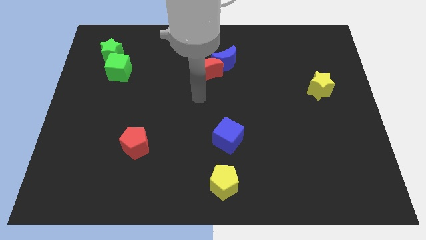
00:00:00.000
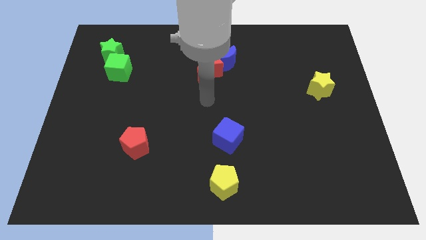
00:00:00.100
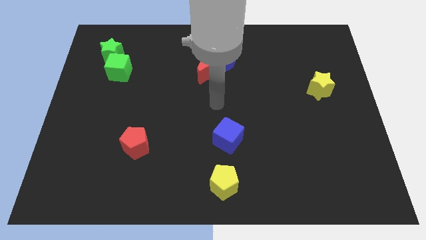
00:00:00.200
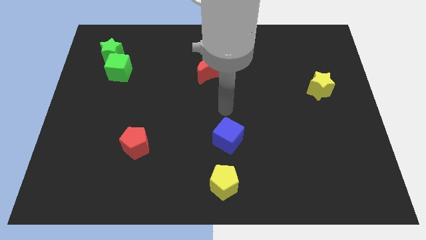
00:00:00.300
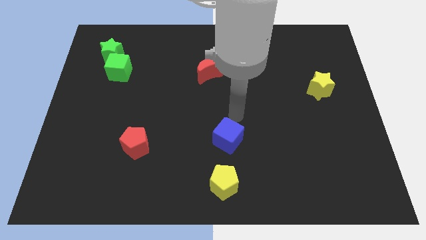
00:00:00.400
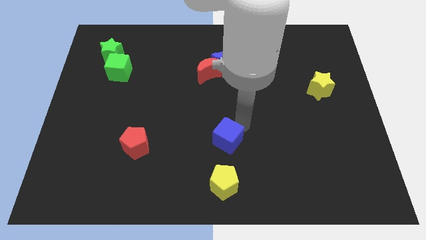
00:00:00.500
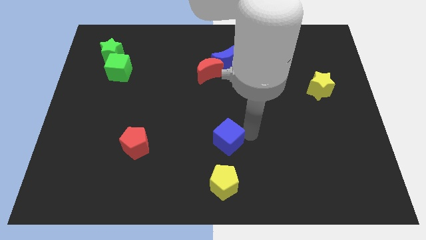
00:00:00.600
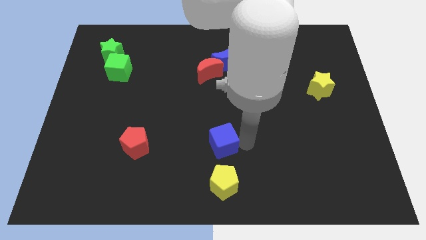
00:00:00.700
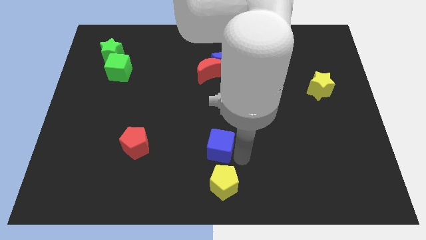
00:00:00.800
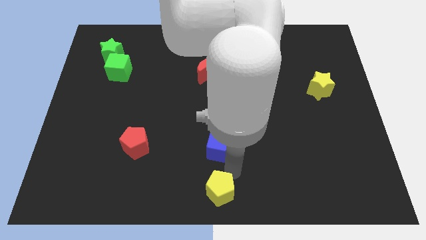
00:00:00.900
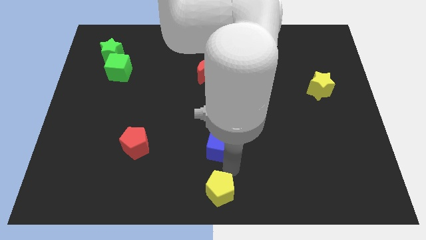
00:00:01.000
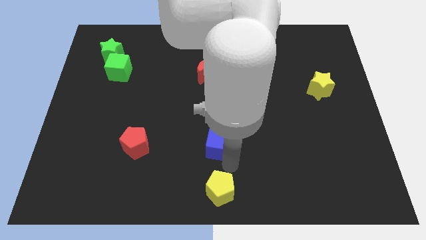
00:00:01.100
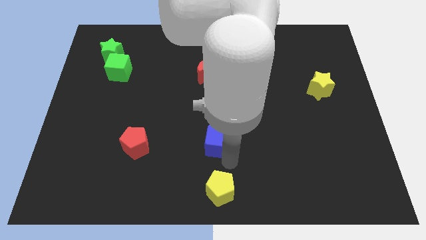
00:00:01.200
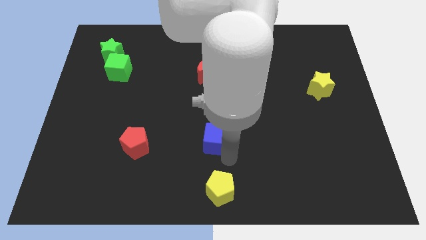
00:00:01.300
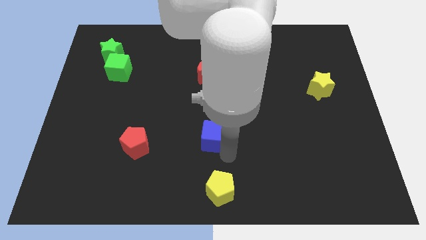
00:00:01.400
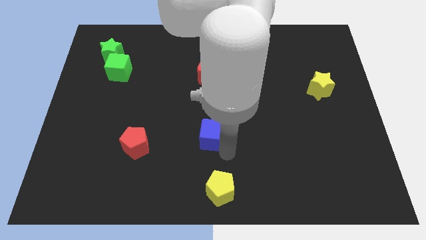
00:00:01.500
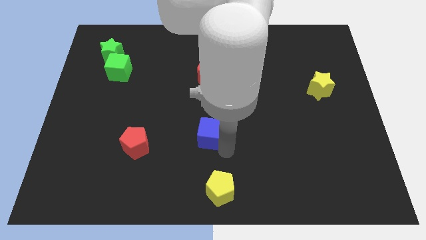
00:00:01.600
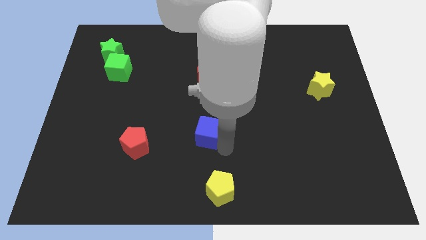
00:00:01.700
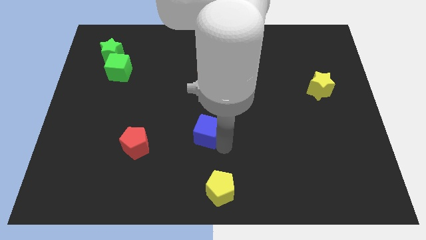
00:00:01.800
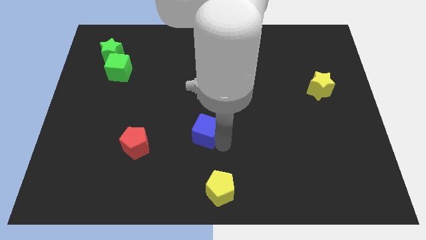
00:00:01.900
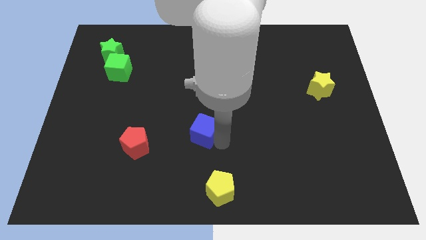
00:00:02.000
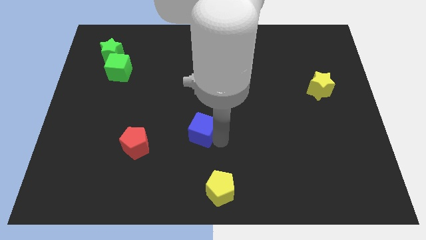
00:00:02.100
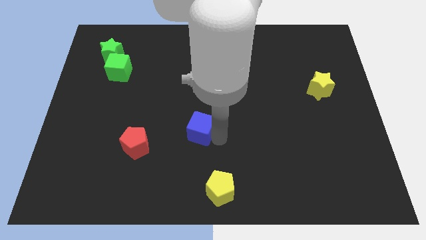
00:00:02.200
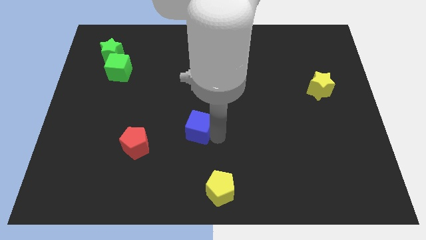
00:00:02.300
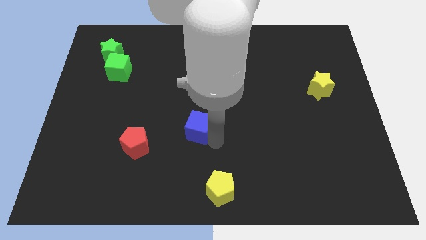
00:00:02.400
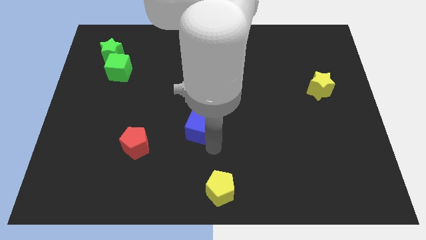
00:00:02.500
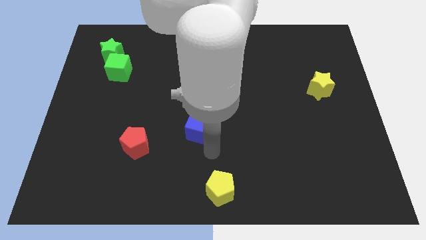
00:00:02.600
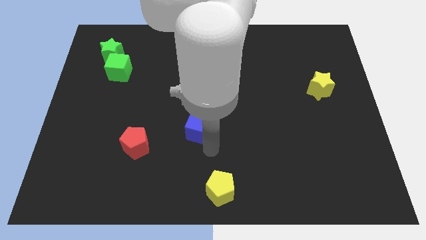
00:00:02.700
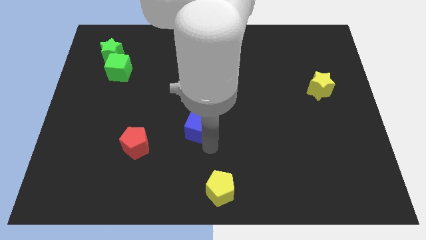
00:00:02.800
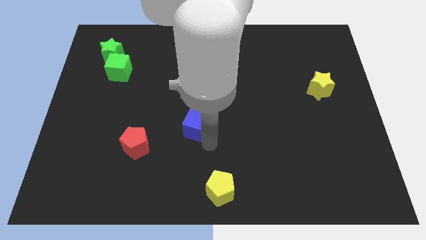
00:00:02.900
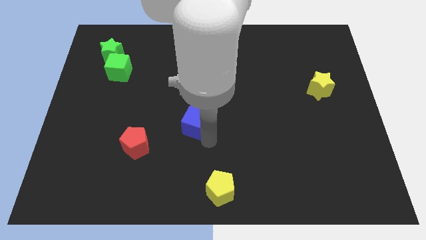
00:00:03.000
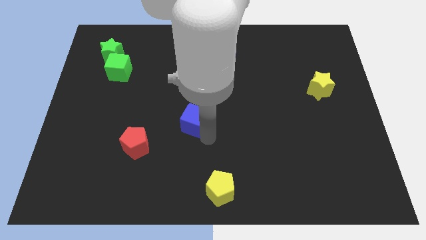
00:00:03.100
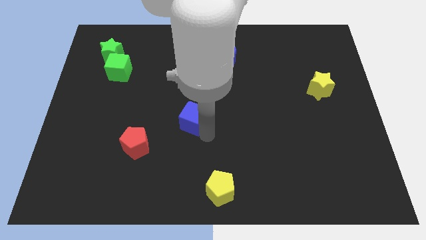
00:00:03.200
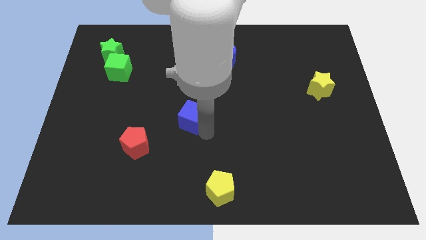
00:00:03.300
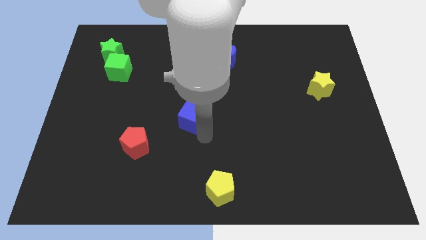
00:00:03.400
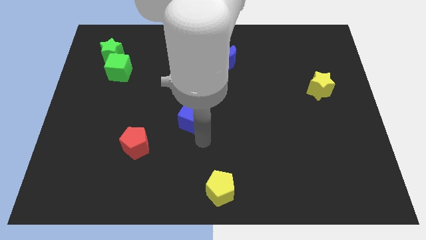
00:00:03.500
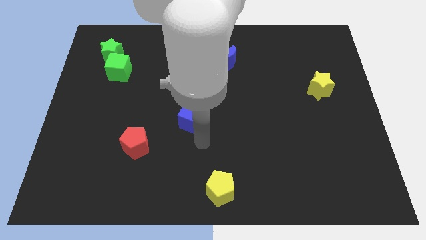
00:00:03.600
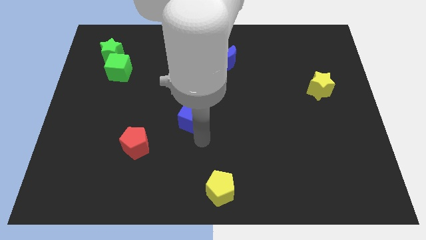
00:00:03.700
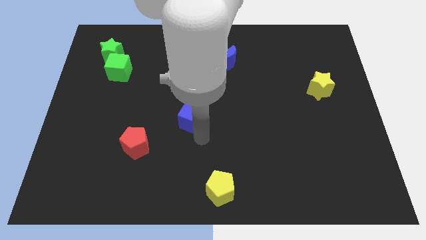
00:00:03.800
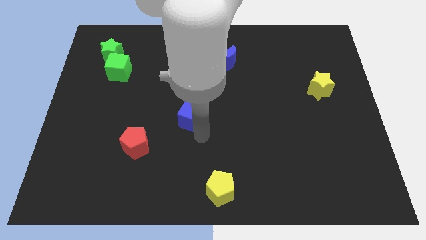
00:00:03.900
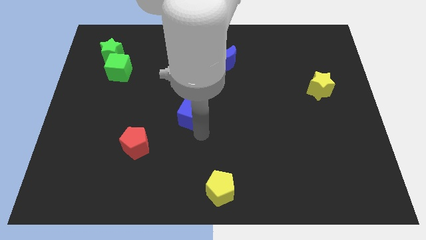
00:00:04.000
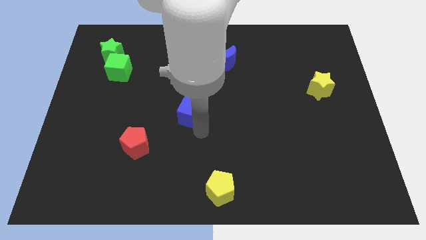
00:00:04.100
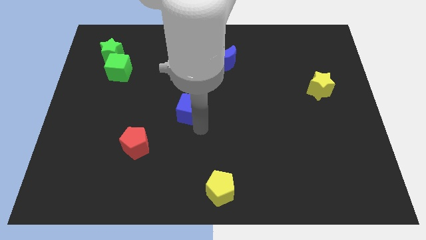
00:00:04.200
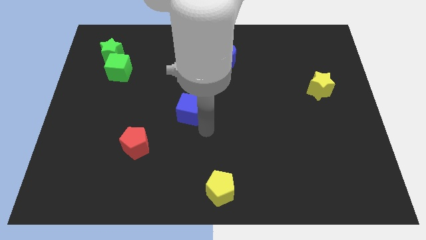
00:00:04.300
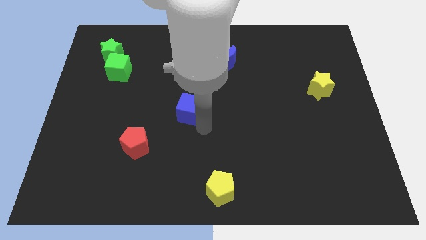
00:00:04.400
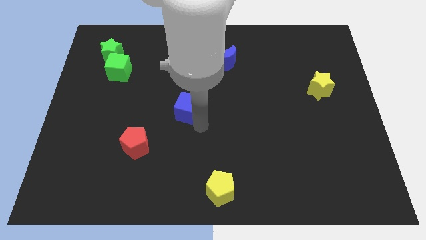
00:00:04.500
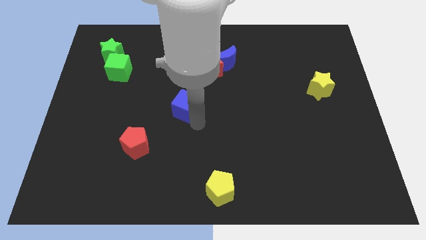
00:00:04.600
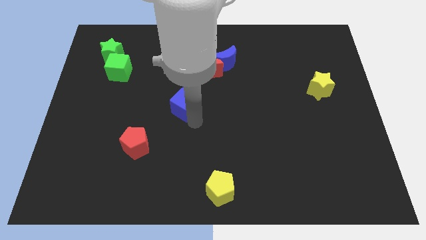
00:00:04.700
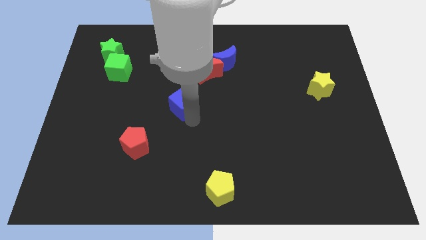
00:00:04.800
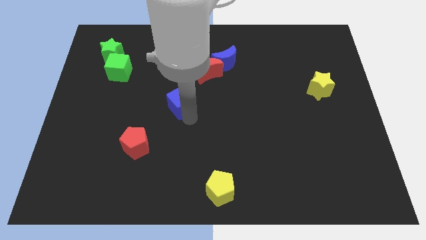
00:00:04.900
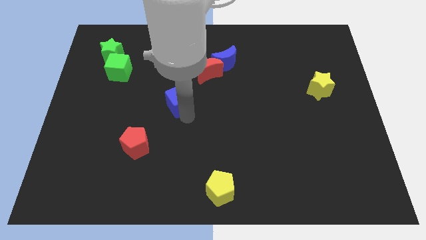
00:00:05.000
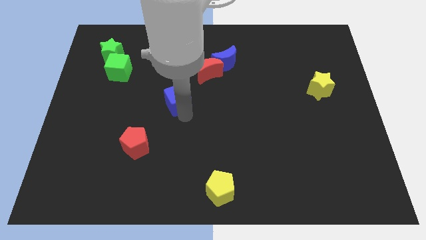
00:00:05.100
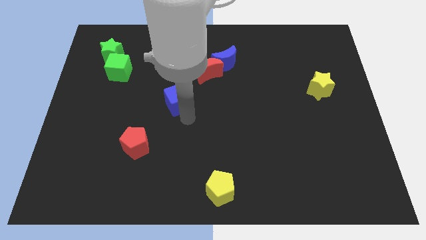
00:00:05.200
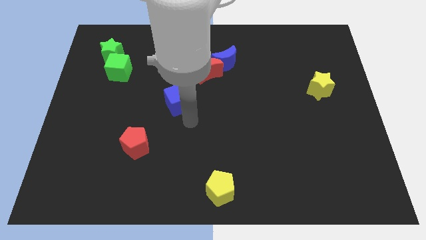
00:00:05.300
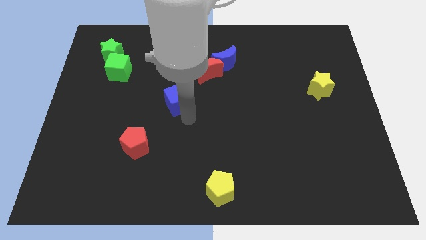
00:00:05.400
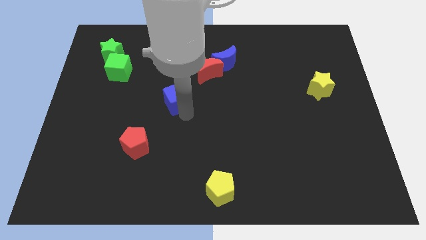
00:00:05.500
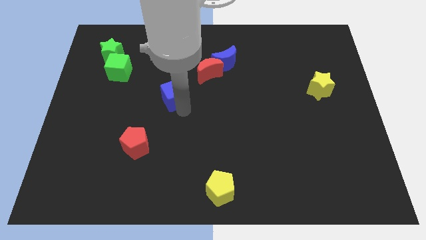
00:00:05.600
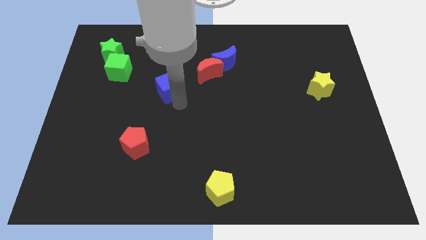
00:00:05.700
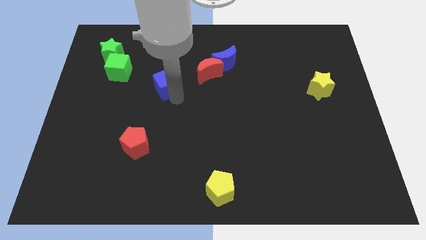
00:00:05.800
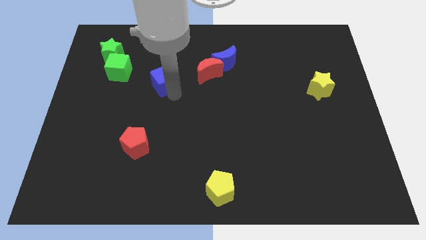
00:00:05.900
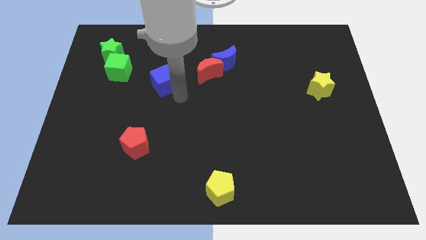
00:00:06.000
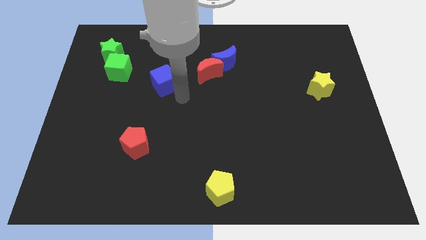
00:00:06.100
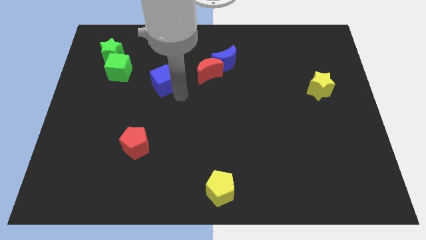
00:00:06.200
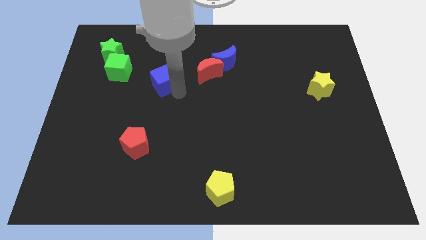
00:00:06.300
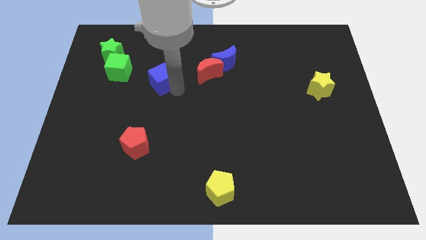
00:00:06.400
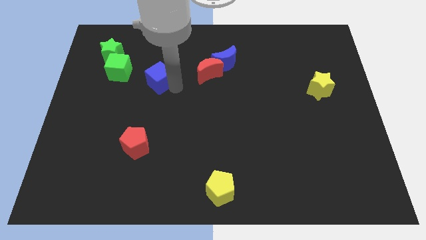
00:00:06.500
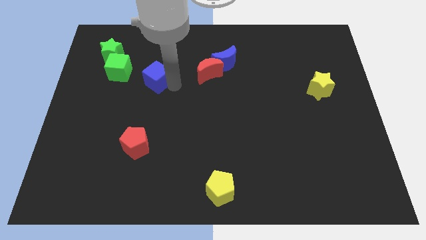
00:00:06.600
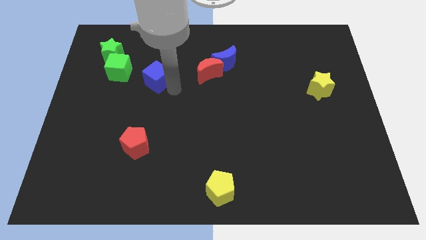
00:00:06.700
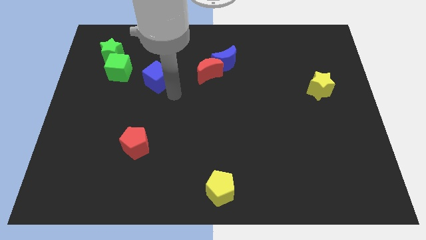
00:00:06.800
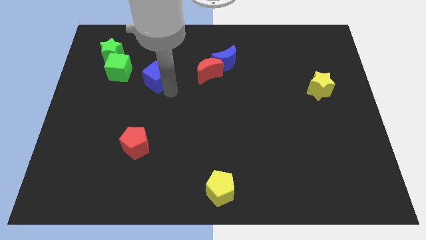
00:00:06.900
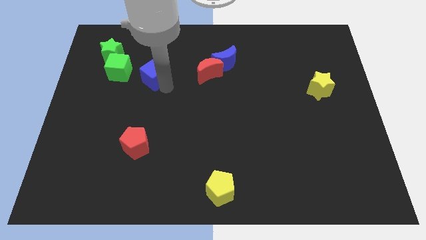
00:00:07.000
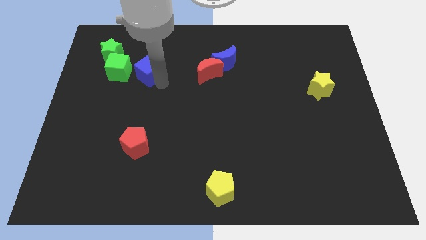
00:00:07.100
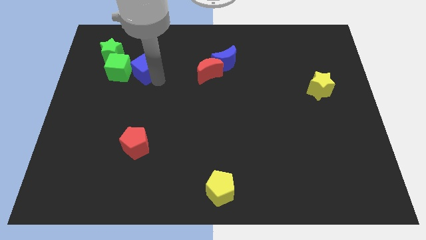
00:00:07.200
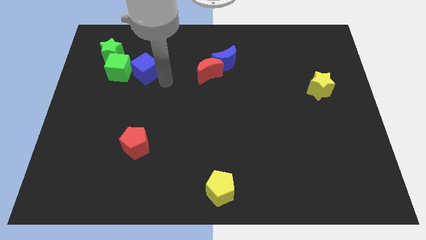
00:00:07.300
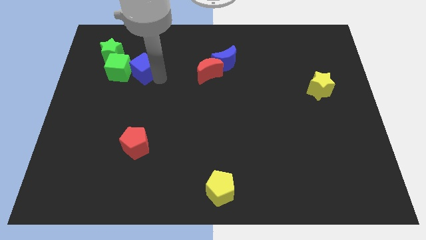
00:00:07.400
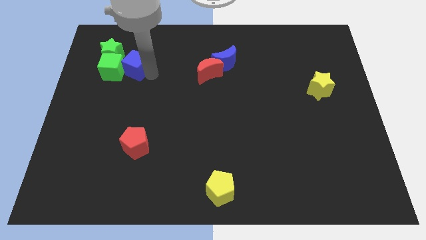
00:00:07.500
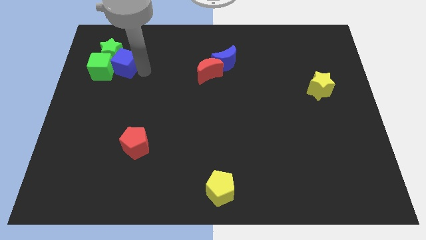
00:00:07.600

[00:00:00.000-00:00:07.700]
push the blue cube towards the green star
